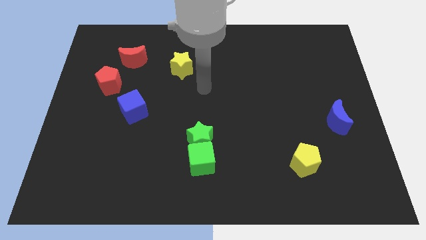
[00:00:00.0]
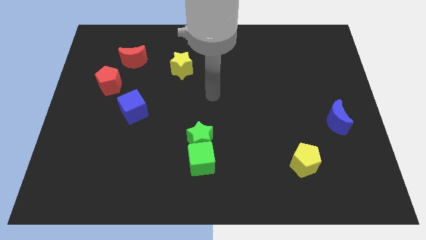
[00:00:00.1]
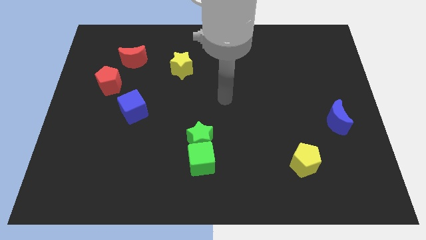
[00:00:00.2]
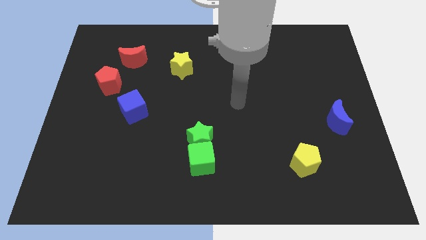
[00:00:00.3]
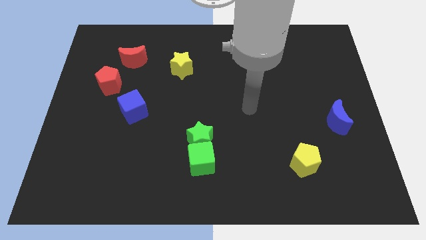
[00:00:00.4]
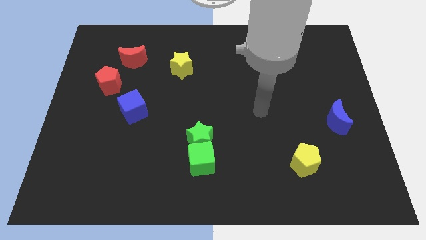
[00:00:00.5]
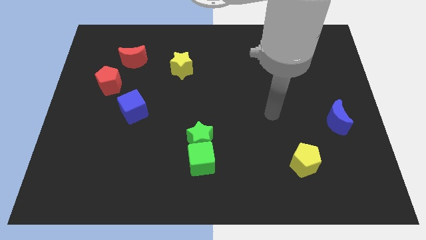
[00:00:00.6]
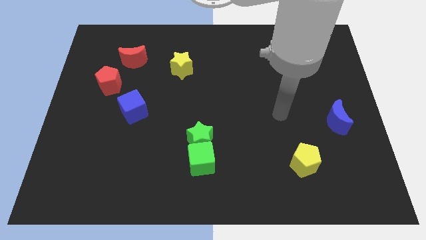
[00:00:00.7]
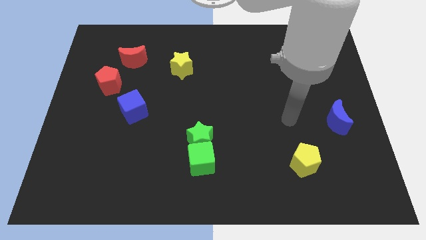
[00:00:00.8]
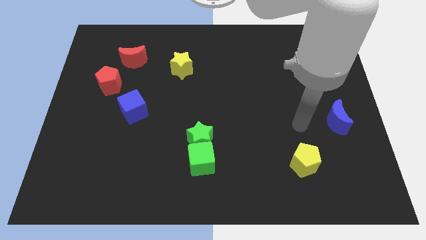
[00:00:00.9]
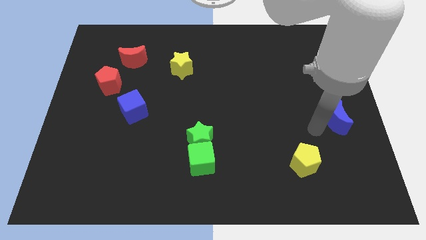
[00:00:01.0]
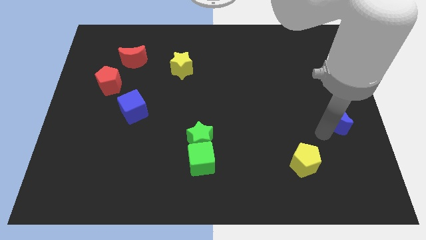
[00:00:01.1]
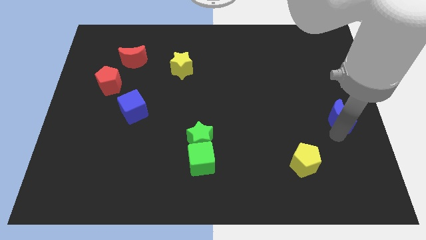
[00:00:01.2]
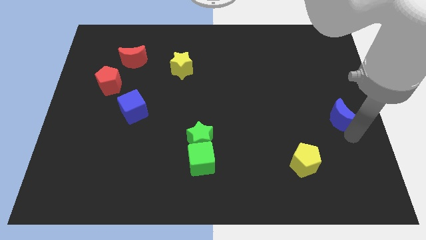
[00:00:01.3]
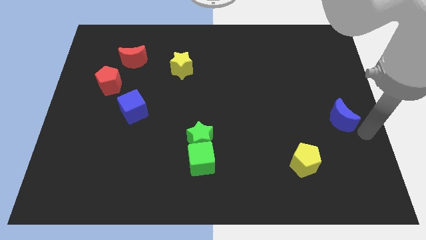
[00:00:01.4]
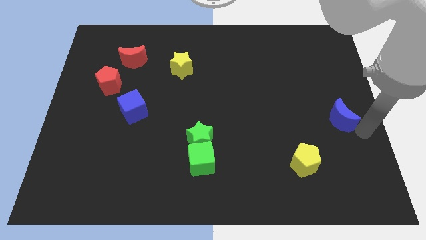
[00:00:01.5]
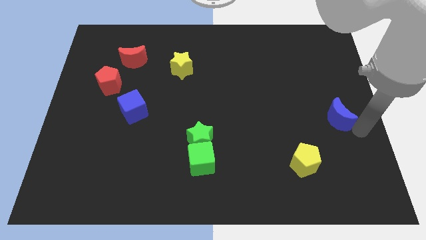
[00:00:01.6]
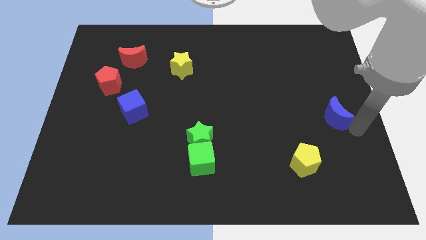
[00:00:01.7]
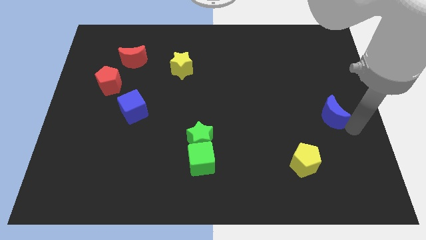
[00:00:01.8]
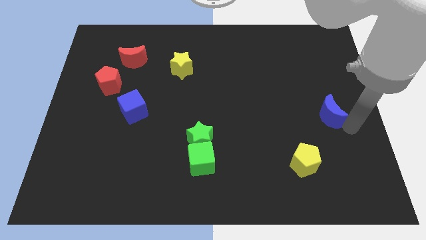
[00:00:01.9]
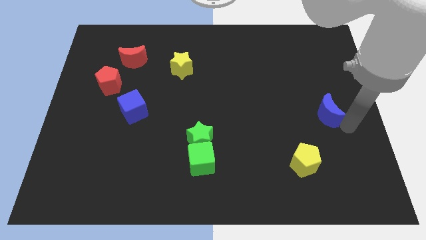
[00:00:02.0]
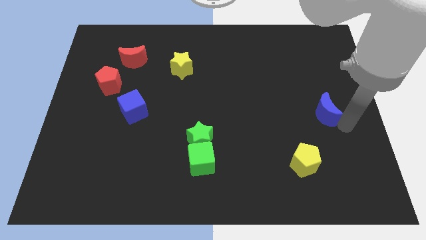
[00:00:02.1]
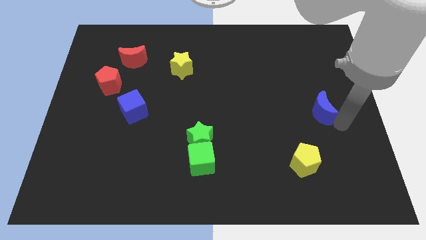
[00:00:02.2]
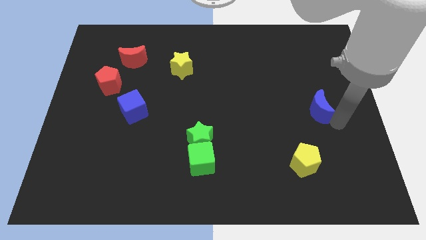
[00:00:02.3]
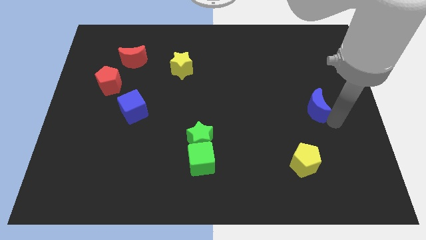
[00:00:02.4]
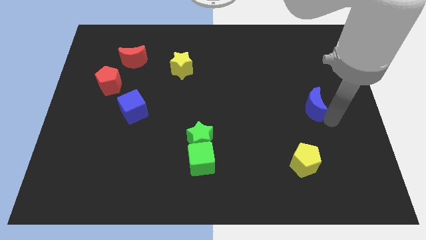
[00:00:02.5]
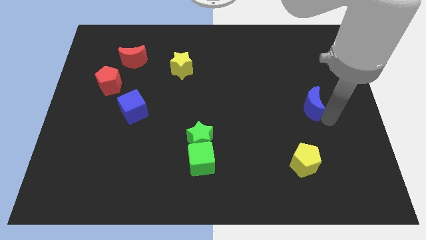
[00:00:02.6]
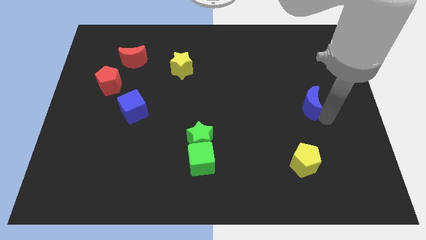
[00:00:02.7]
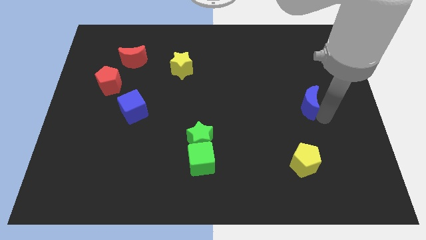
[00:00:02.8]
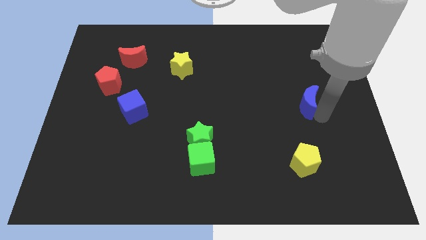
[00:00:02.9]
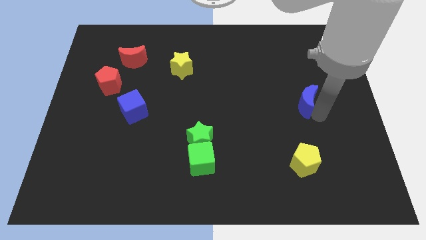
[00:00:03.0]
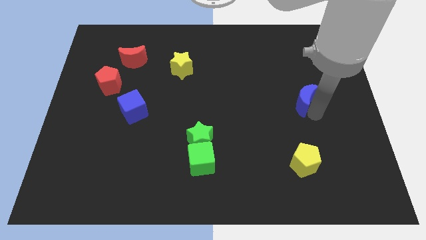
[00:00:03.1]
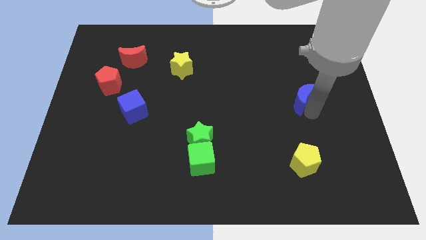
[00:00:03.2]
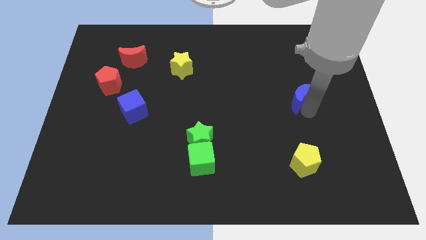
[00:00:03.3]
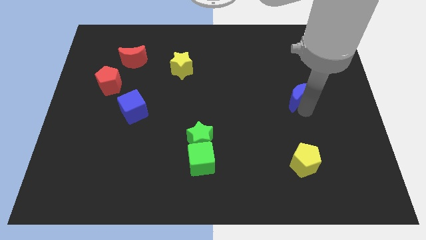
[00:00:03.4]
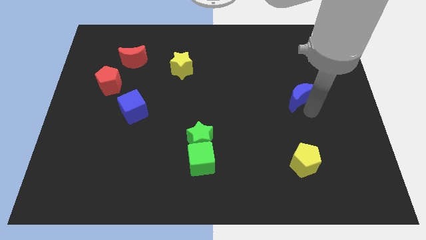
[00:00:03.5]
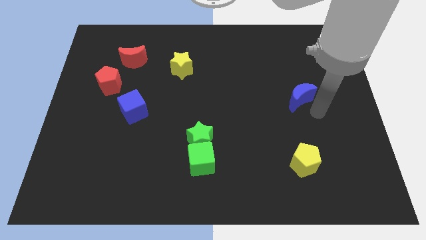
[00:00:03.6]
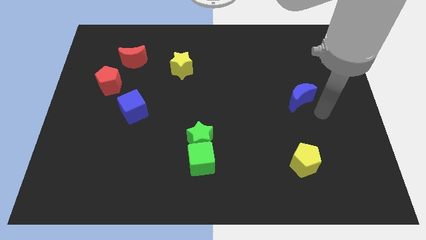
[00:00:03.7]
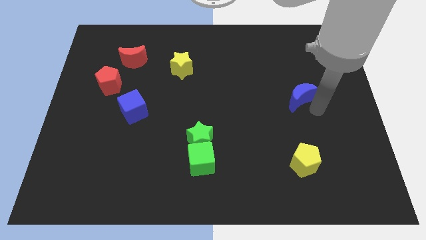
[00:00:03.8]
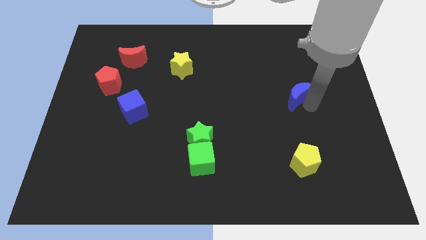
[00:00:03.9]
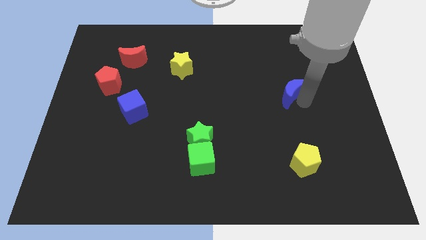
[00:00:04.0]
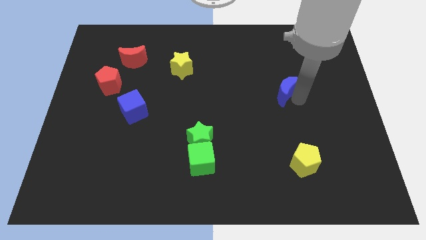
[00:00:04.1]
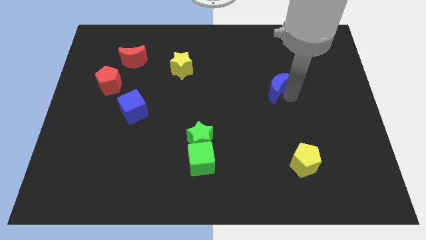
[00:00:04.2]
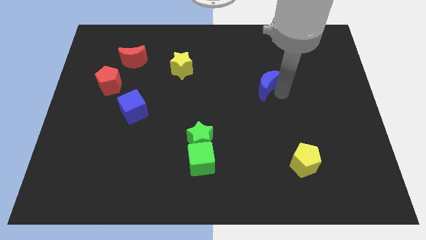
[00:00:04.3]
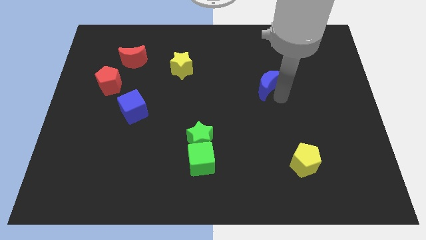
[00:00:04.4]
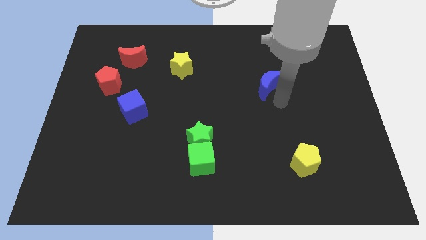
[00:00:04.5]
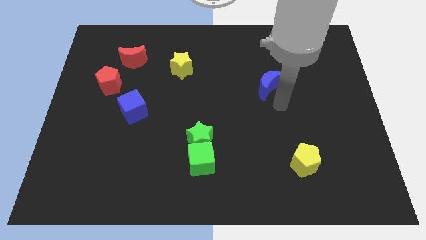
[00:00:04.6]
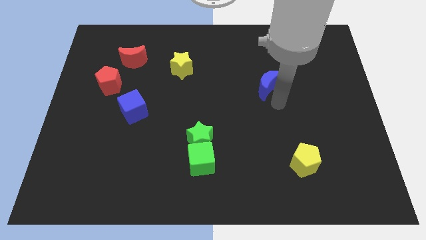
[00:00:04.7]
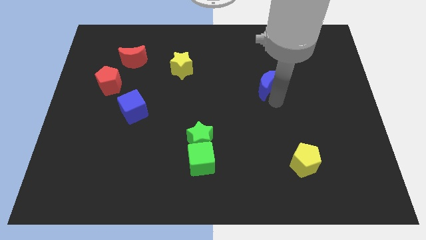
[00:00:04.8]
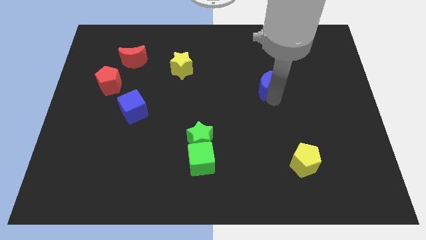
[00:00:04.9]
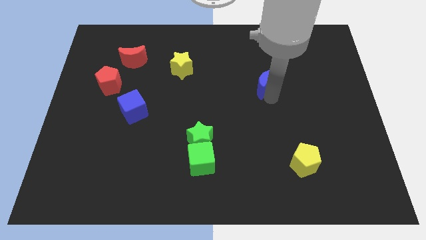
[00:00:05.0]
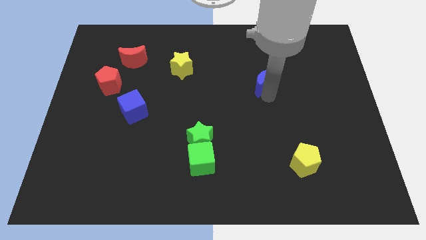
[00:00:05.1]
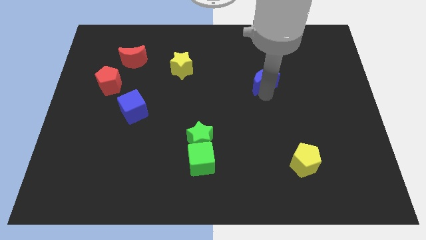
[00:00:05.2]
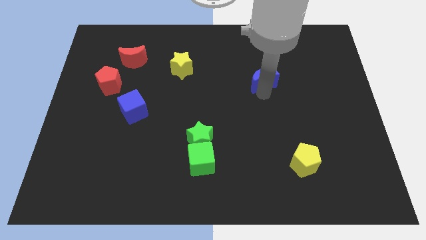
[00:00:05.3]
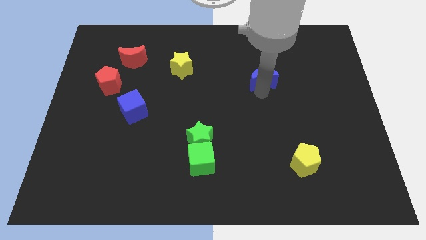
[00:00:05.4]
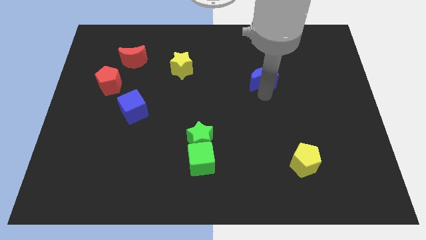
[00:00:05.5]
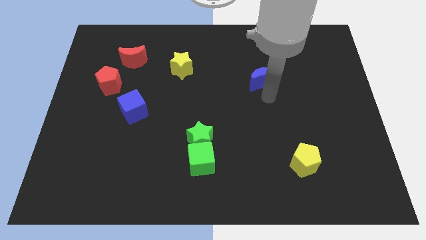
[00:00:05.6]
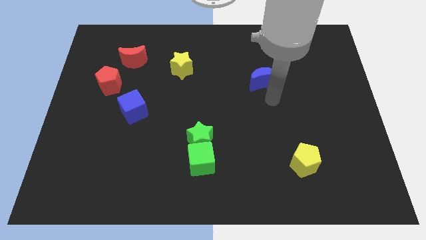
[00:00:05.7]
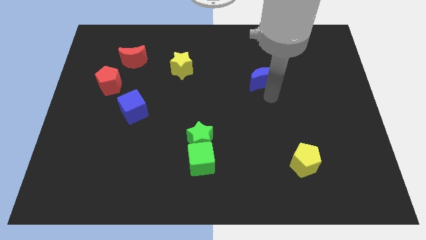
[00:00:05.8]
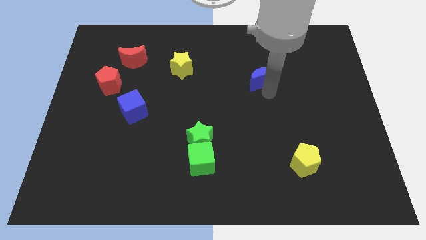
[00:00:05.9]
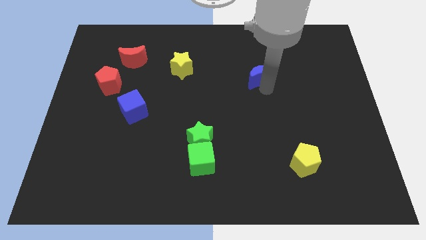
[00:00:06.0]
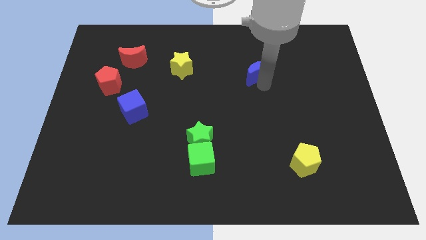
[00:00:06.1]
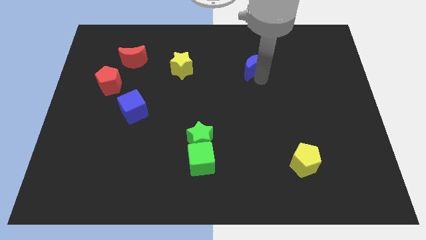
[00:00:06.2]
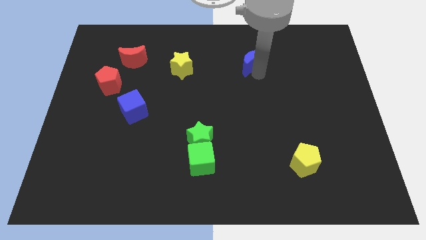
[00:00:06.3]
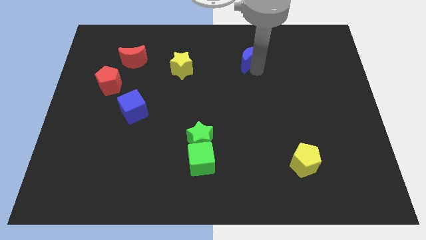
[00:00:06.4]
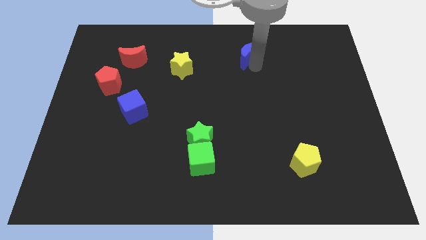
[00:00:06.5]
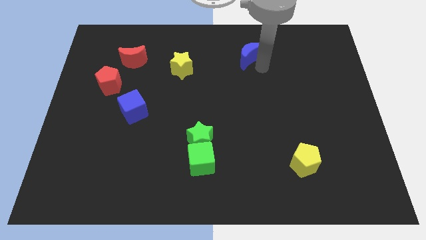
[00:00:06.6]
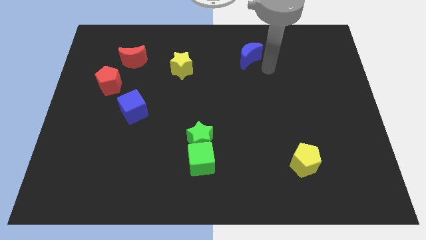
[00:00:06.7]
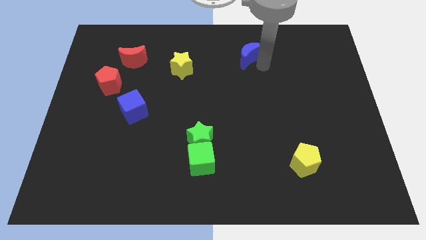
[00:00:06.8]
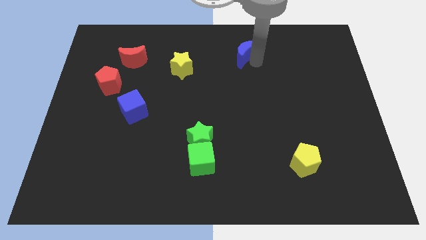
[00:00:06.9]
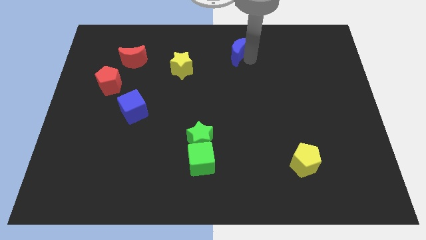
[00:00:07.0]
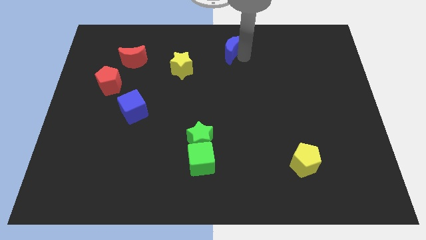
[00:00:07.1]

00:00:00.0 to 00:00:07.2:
move the blue moon to the top
